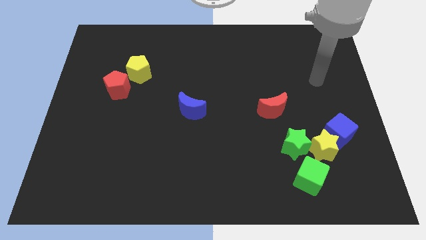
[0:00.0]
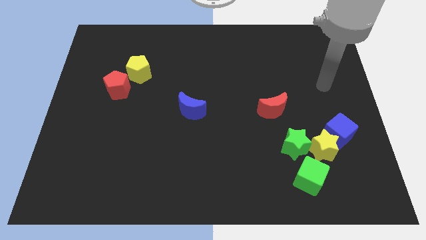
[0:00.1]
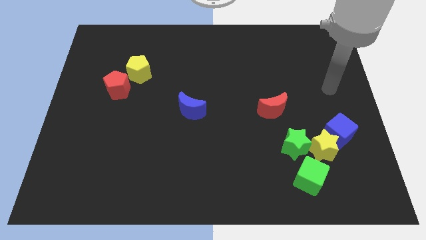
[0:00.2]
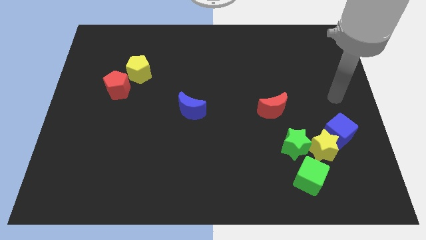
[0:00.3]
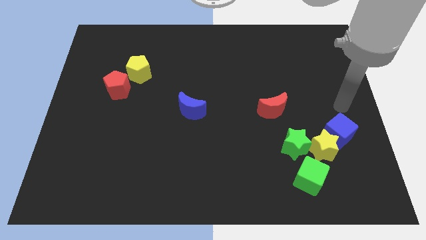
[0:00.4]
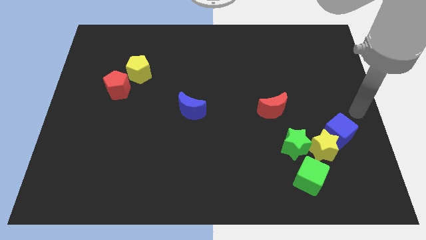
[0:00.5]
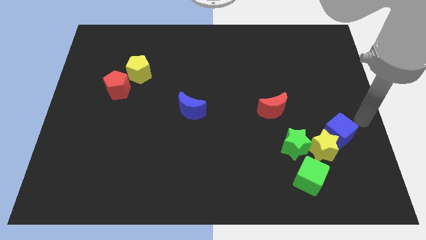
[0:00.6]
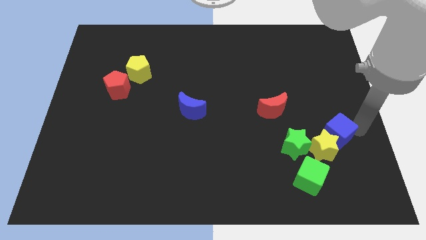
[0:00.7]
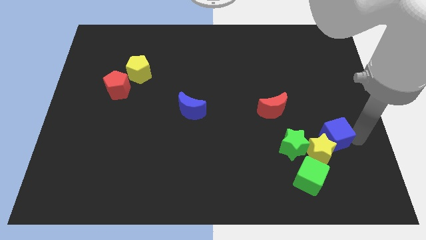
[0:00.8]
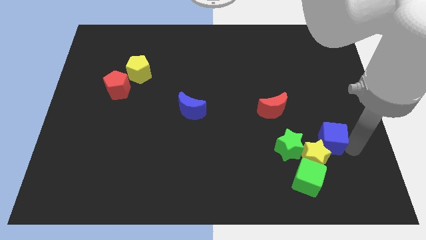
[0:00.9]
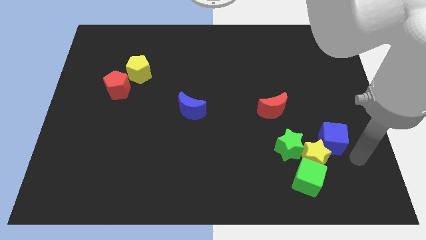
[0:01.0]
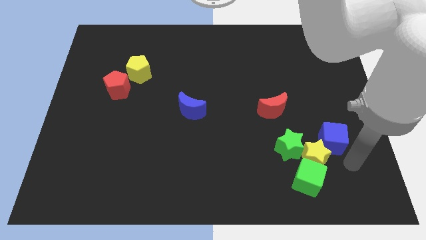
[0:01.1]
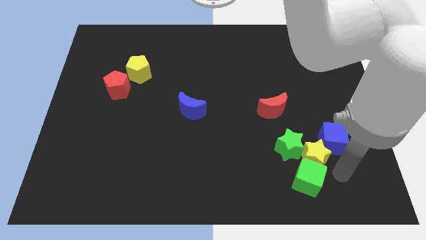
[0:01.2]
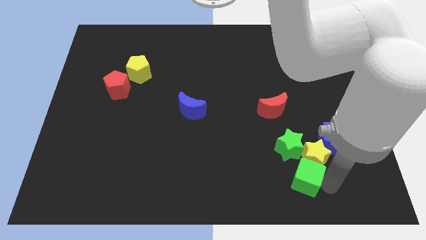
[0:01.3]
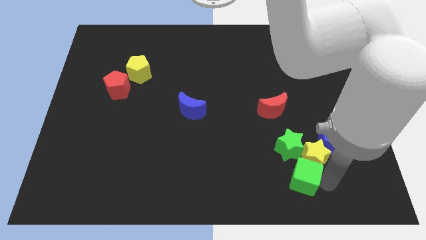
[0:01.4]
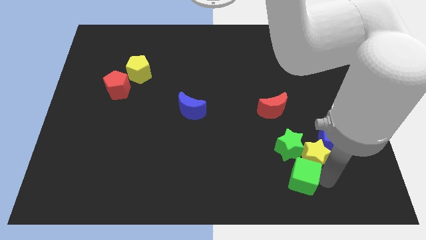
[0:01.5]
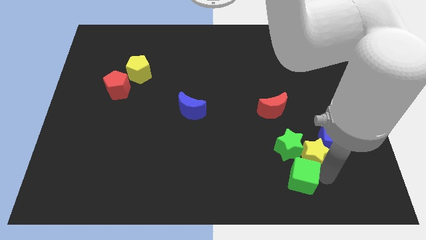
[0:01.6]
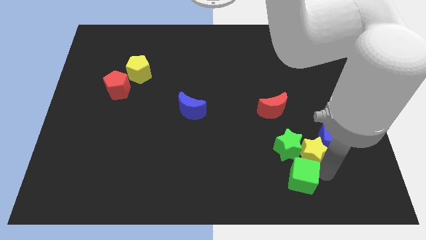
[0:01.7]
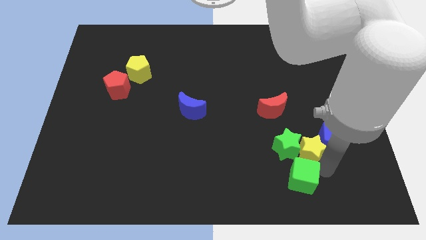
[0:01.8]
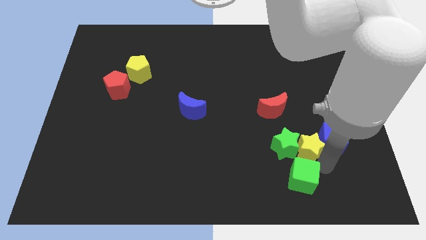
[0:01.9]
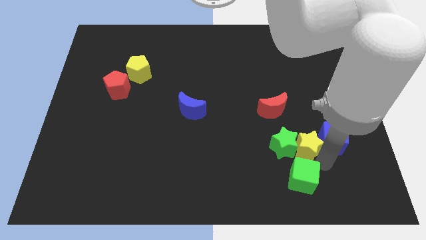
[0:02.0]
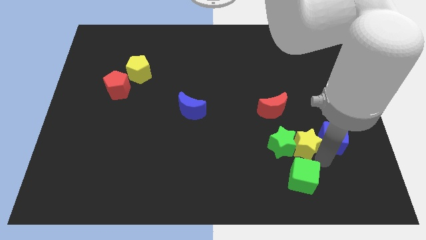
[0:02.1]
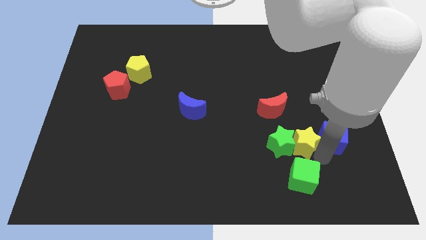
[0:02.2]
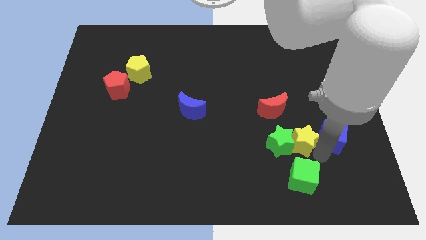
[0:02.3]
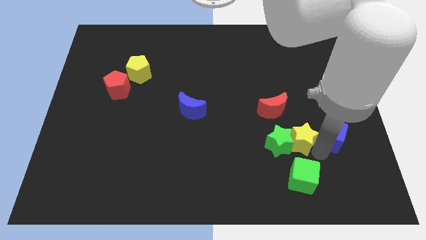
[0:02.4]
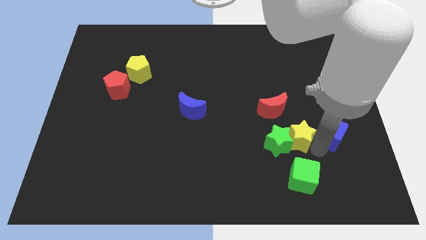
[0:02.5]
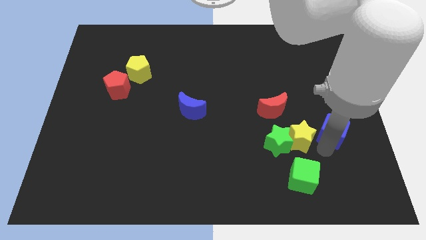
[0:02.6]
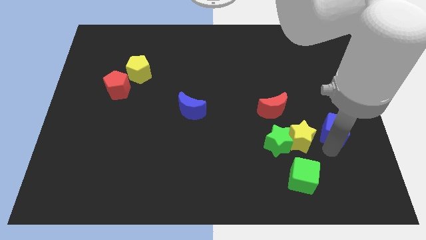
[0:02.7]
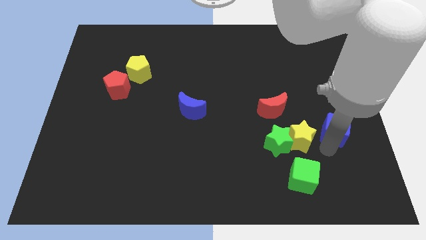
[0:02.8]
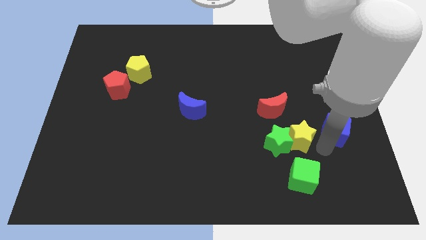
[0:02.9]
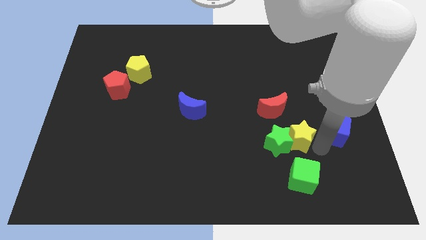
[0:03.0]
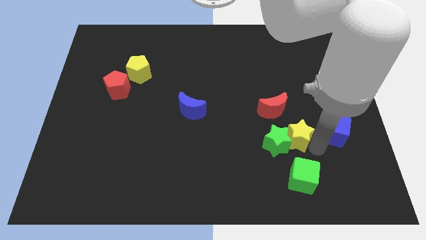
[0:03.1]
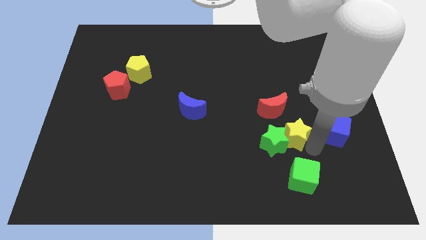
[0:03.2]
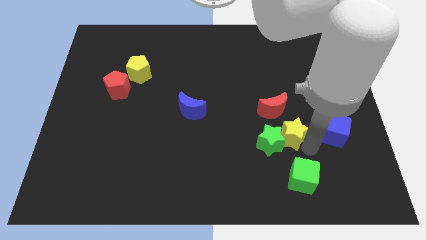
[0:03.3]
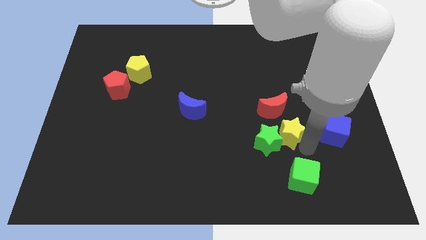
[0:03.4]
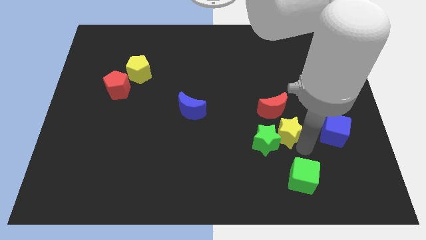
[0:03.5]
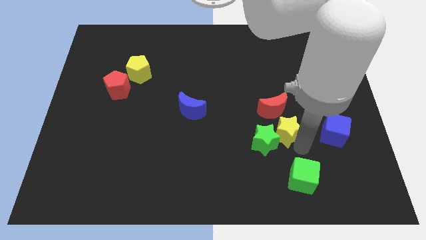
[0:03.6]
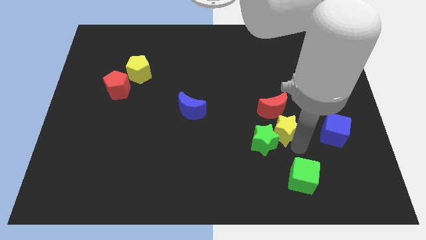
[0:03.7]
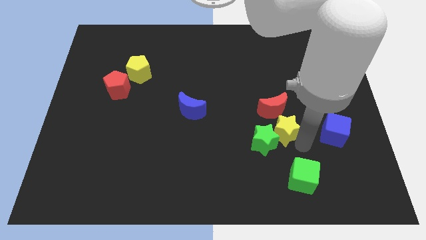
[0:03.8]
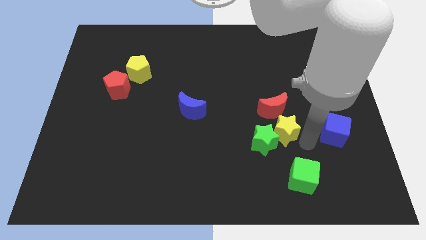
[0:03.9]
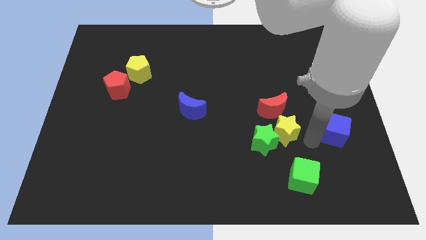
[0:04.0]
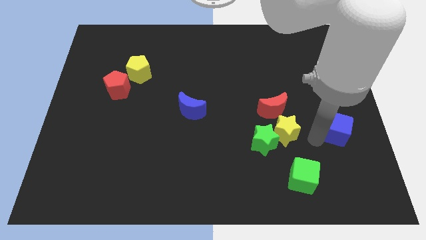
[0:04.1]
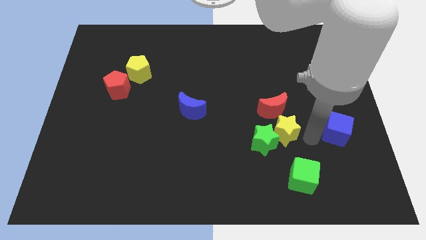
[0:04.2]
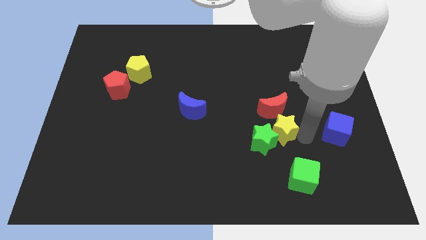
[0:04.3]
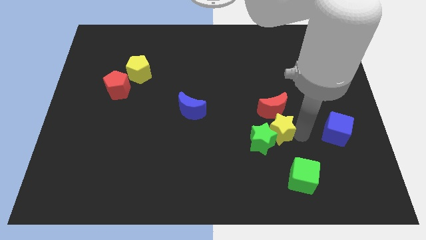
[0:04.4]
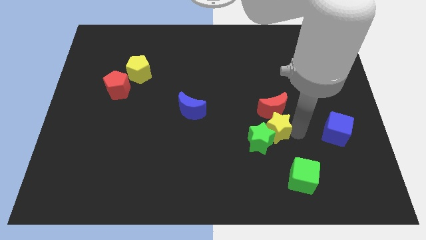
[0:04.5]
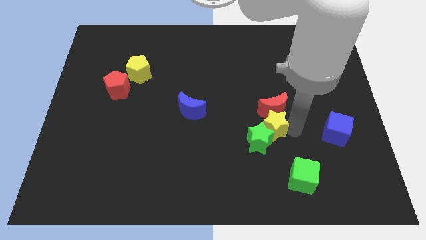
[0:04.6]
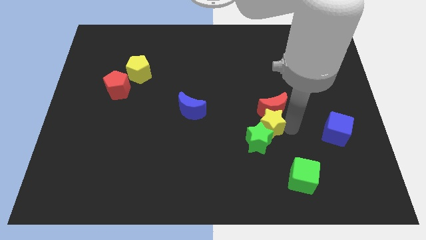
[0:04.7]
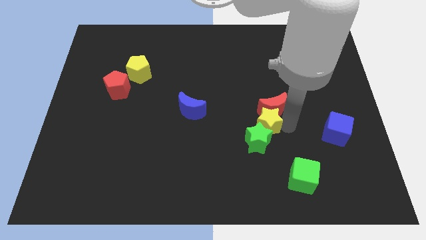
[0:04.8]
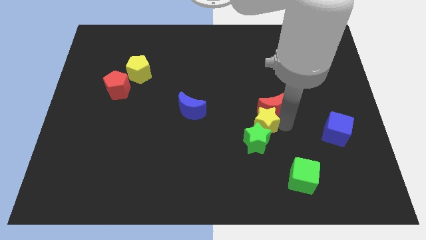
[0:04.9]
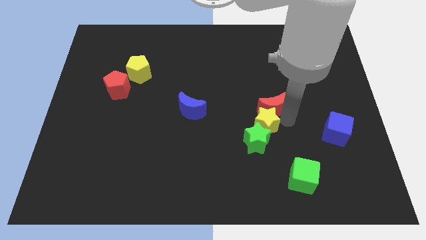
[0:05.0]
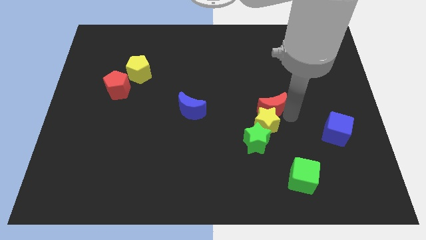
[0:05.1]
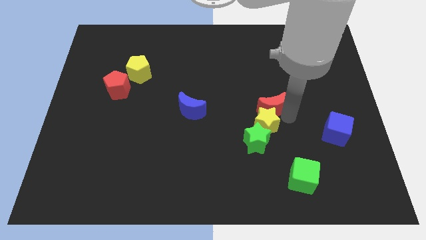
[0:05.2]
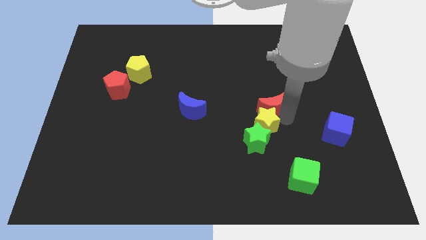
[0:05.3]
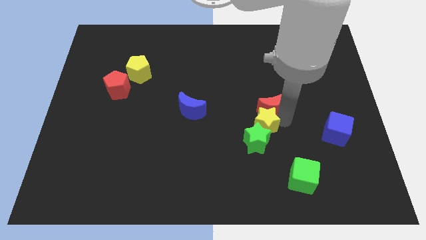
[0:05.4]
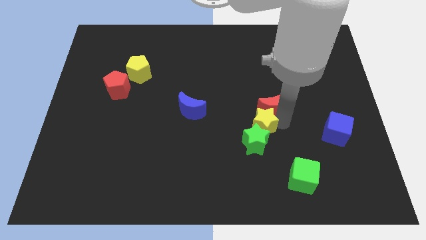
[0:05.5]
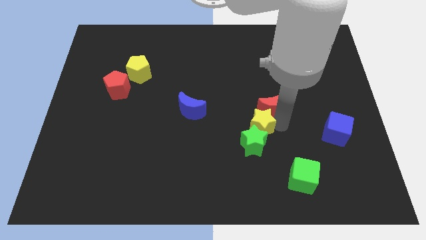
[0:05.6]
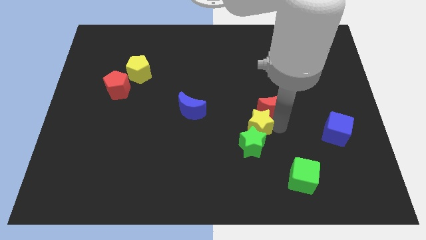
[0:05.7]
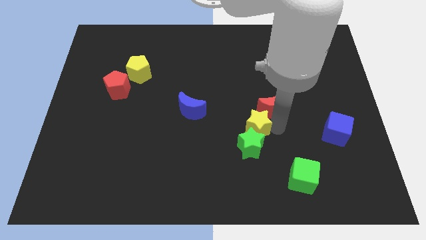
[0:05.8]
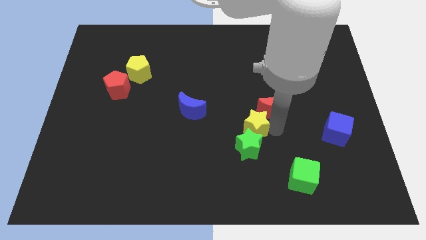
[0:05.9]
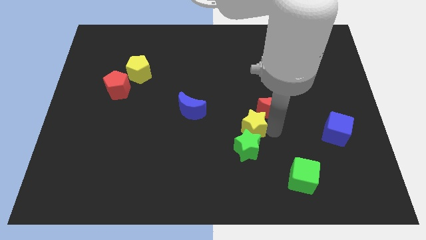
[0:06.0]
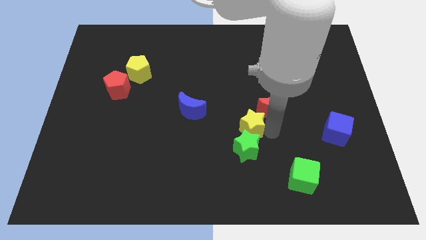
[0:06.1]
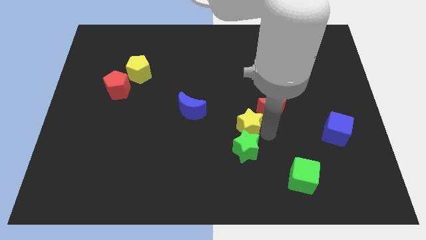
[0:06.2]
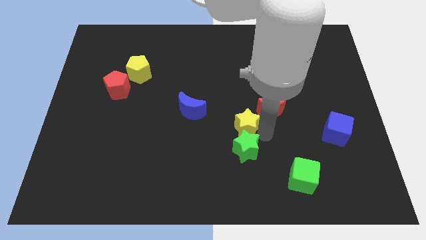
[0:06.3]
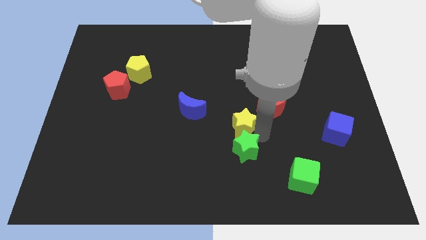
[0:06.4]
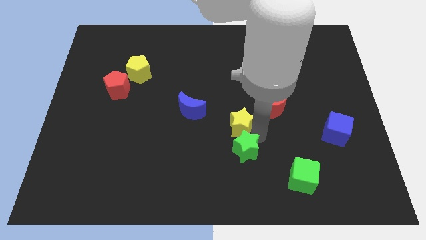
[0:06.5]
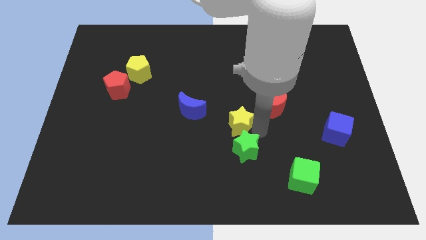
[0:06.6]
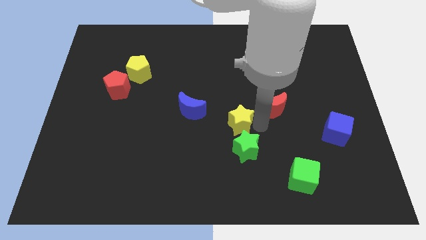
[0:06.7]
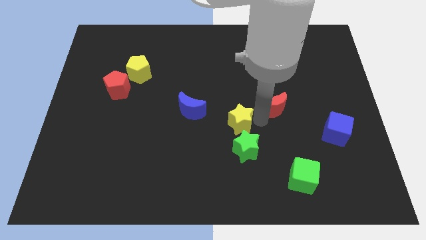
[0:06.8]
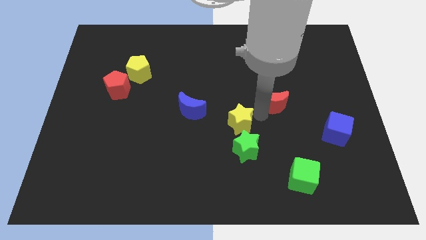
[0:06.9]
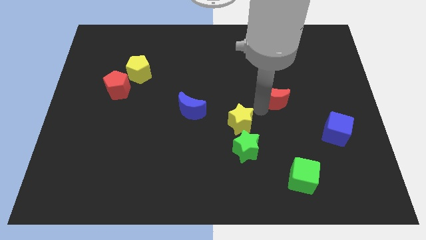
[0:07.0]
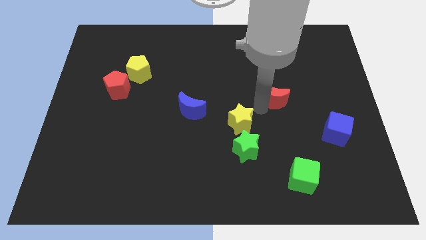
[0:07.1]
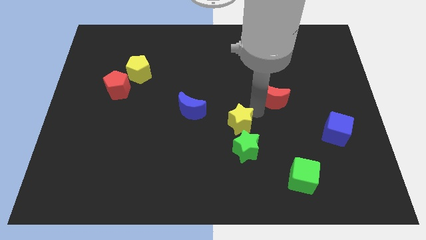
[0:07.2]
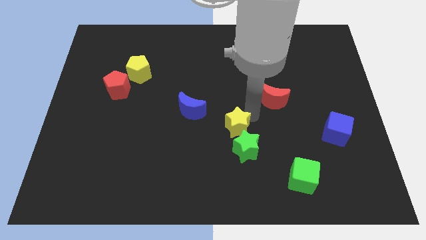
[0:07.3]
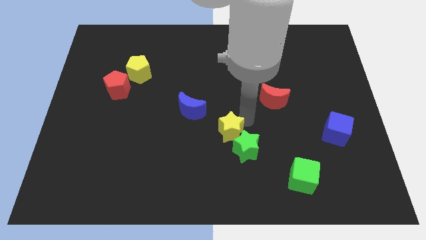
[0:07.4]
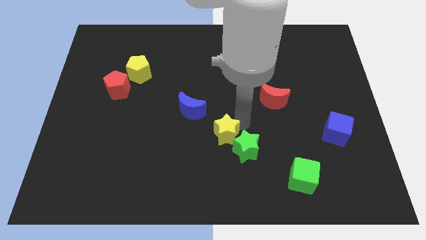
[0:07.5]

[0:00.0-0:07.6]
move the yellow star left

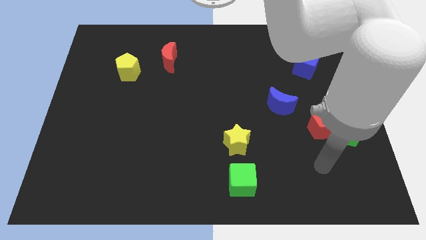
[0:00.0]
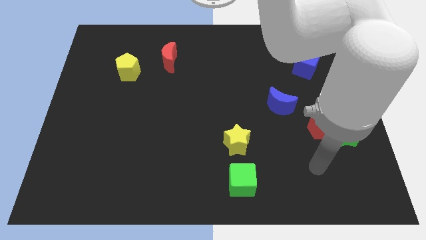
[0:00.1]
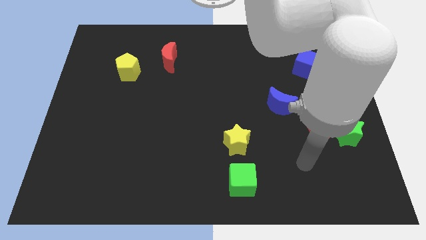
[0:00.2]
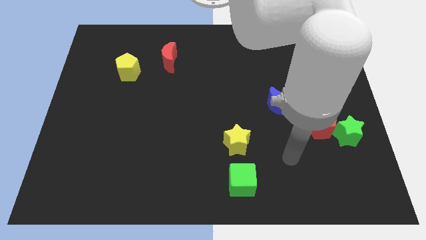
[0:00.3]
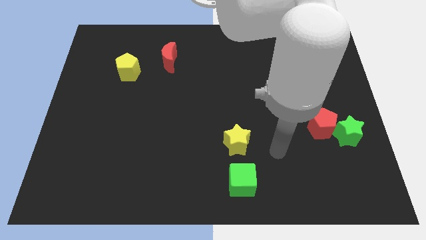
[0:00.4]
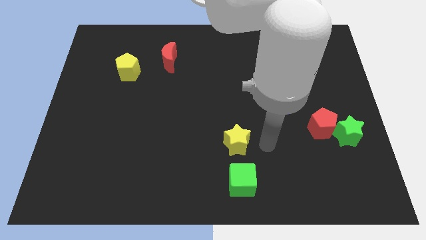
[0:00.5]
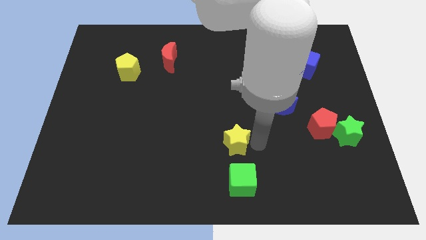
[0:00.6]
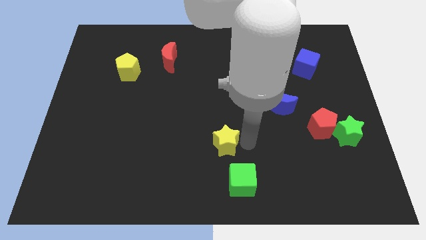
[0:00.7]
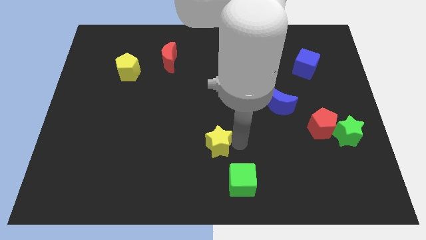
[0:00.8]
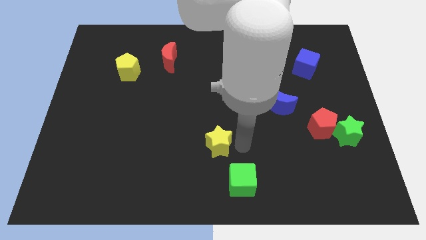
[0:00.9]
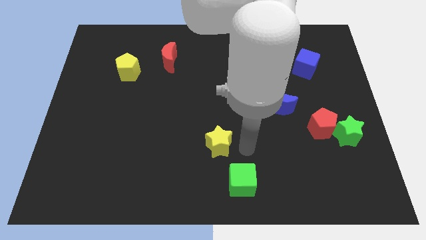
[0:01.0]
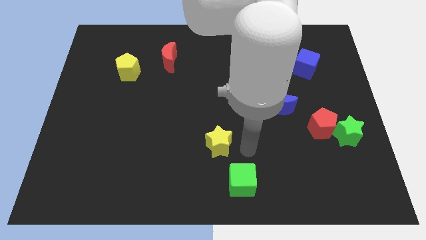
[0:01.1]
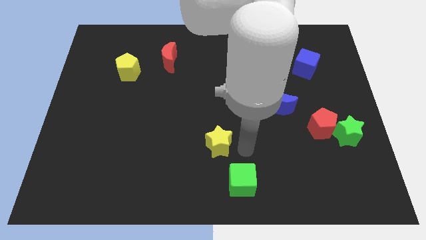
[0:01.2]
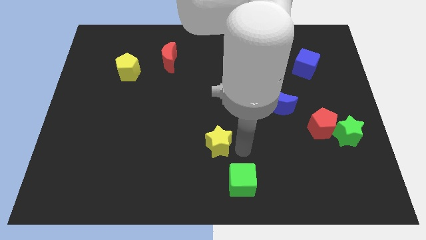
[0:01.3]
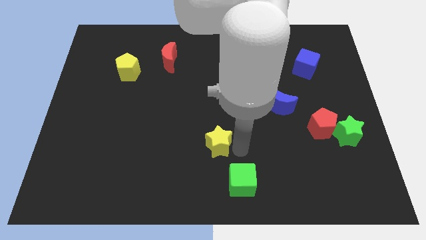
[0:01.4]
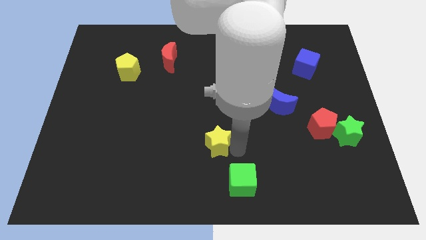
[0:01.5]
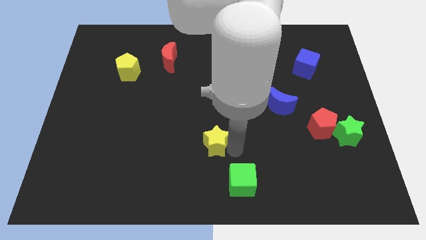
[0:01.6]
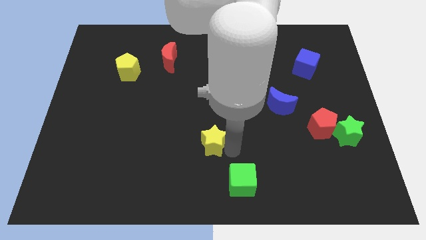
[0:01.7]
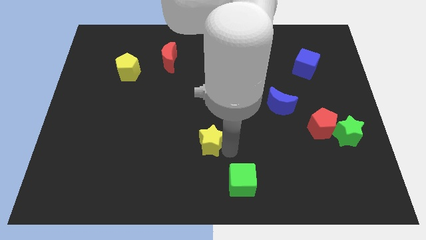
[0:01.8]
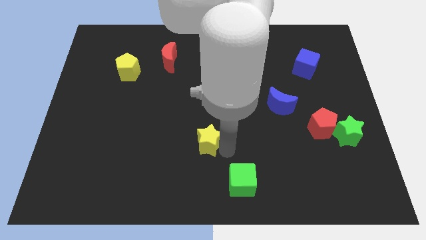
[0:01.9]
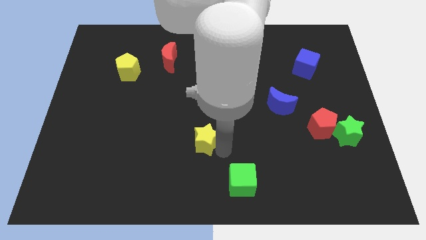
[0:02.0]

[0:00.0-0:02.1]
slightly move the yellow star to the left
